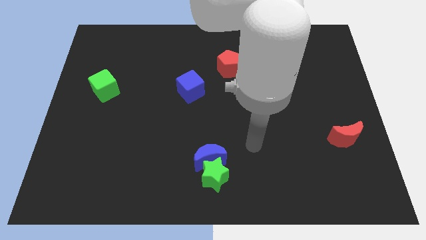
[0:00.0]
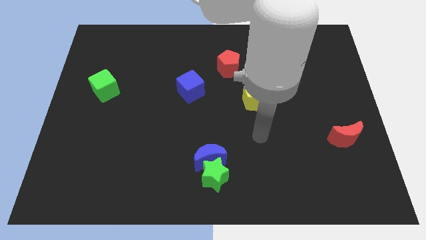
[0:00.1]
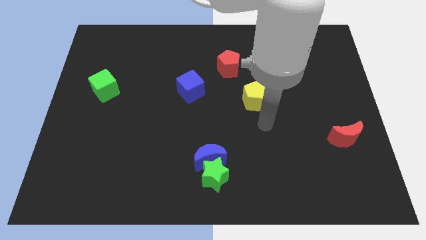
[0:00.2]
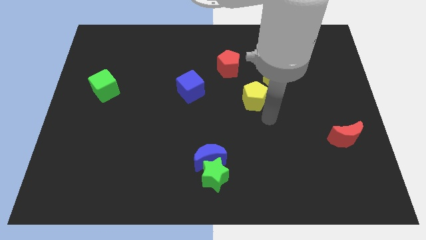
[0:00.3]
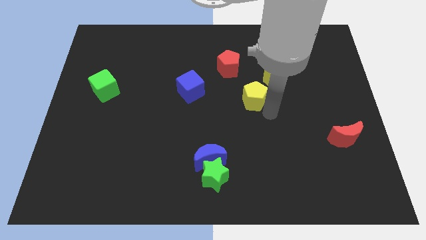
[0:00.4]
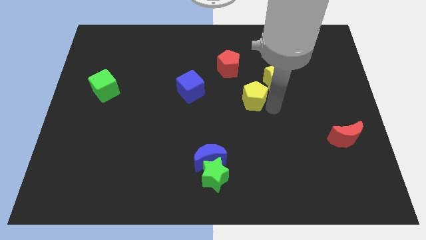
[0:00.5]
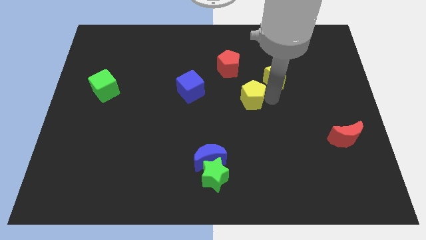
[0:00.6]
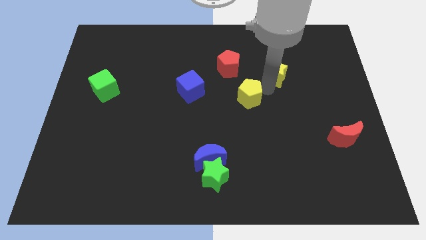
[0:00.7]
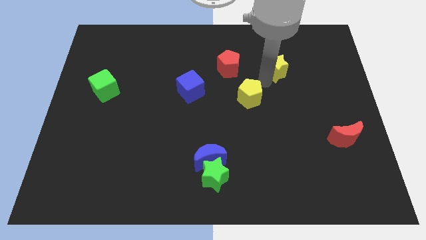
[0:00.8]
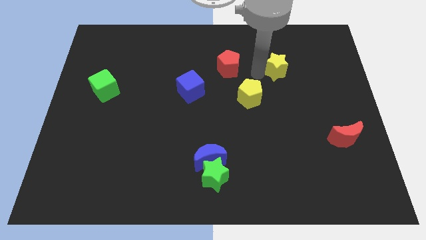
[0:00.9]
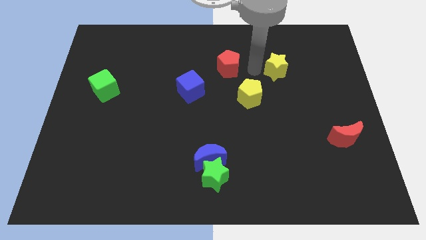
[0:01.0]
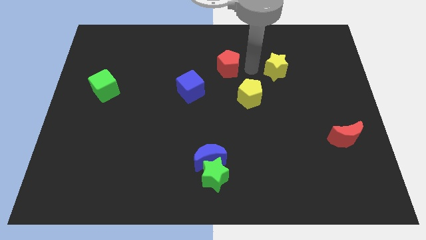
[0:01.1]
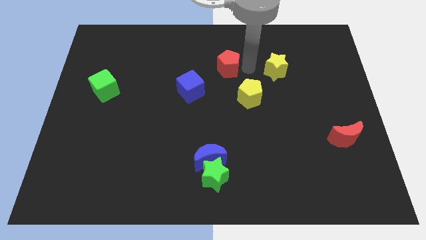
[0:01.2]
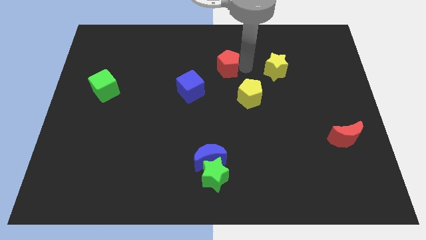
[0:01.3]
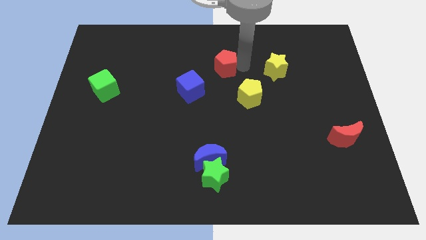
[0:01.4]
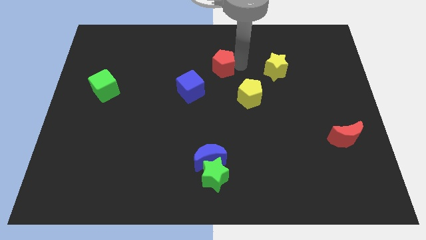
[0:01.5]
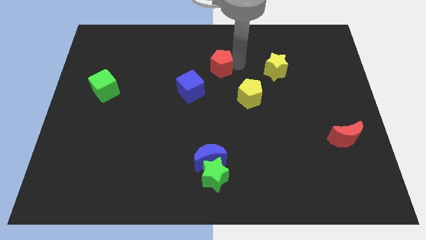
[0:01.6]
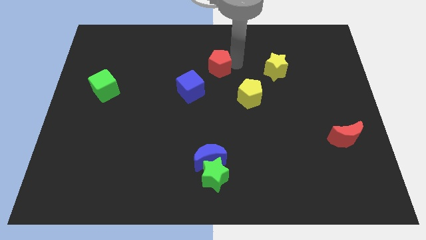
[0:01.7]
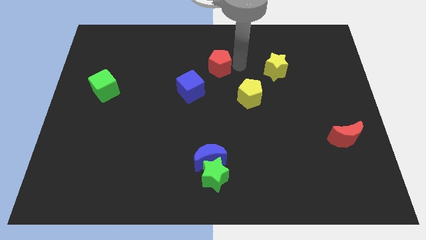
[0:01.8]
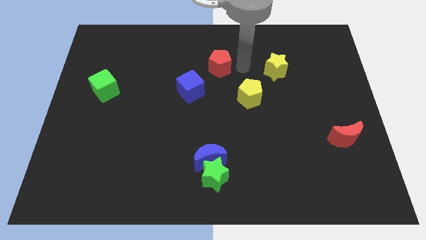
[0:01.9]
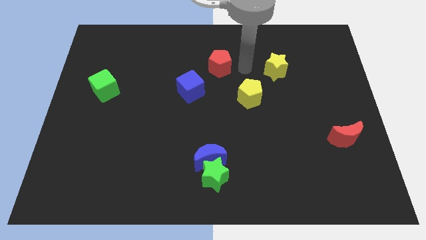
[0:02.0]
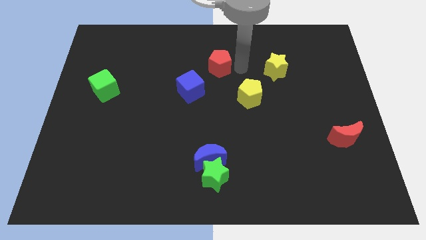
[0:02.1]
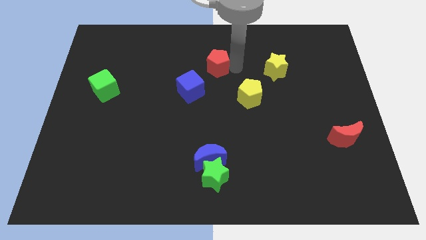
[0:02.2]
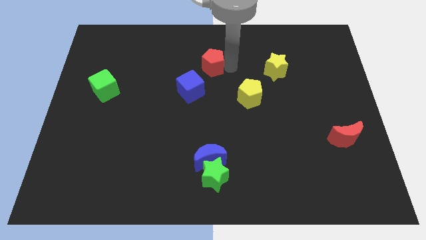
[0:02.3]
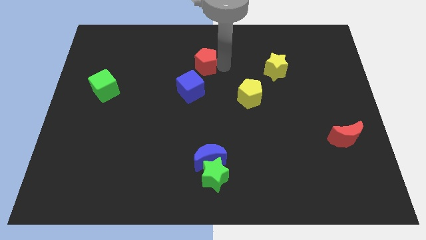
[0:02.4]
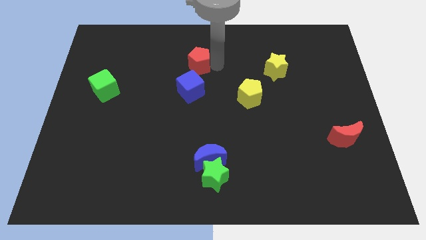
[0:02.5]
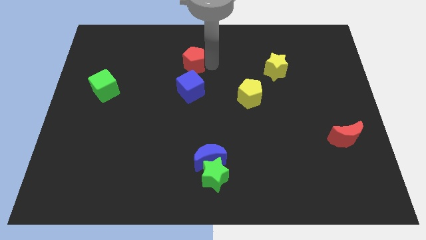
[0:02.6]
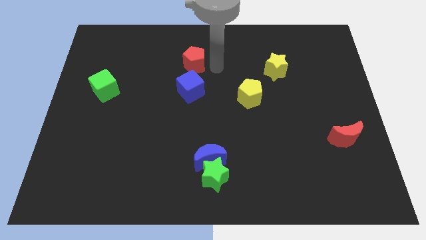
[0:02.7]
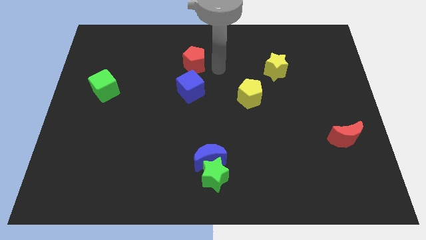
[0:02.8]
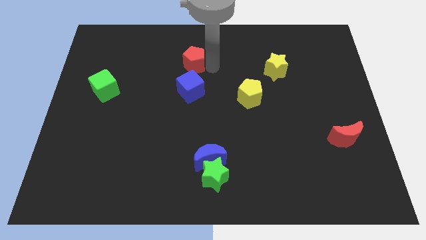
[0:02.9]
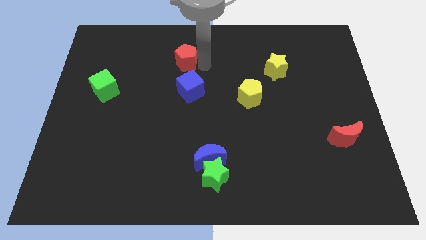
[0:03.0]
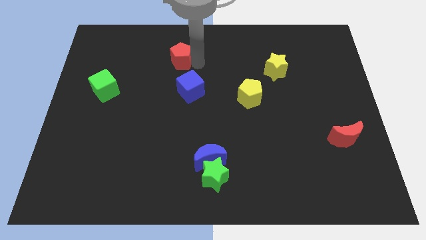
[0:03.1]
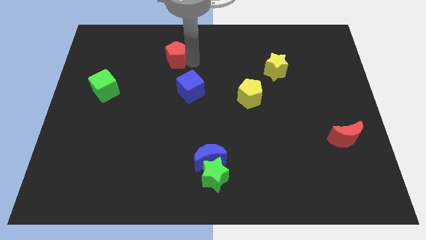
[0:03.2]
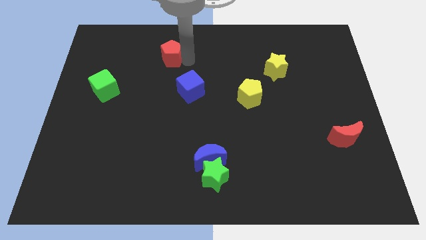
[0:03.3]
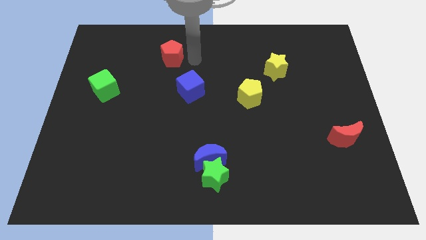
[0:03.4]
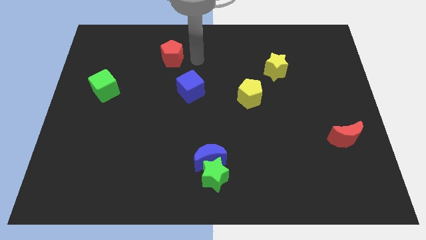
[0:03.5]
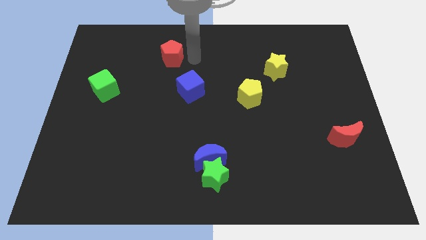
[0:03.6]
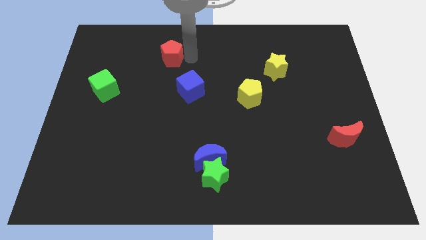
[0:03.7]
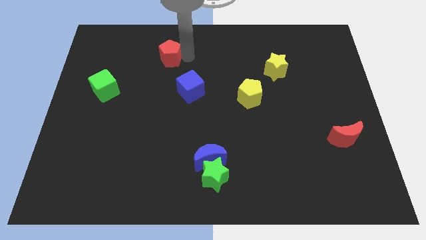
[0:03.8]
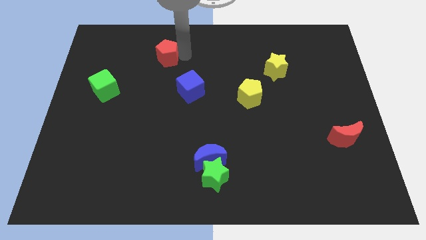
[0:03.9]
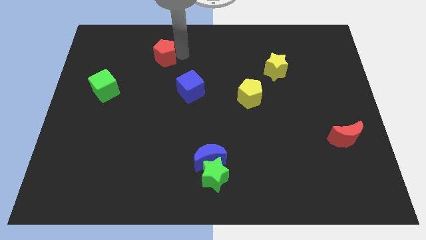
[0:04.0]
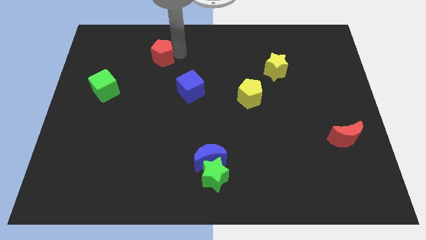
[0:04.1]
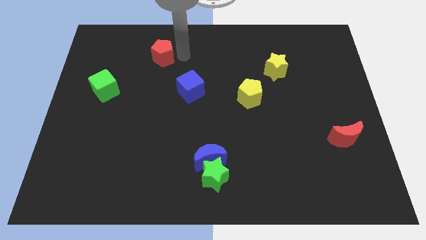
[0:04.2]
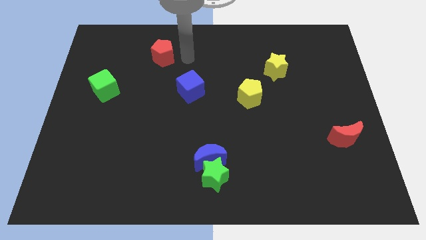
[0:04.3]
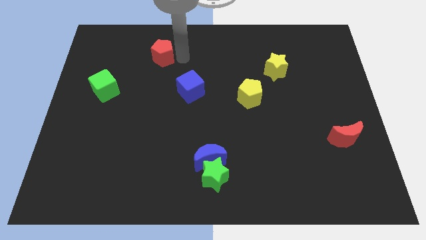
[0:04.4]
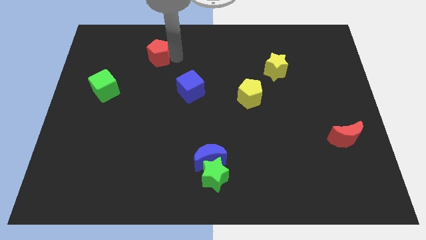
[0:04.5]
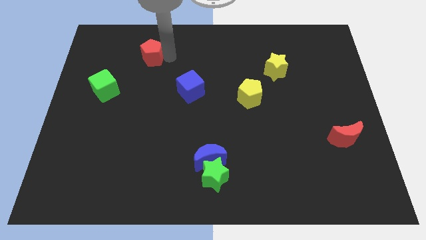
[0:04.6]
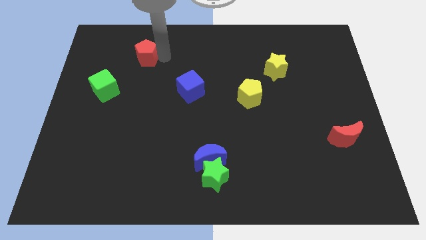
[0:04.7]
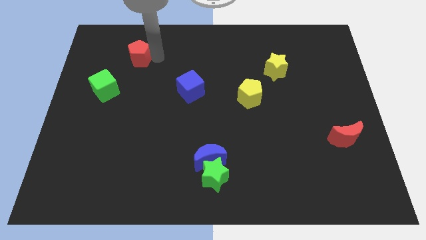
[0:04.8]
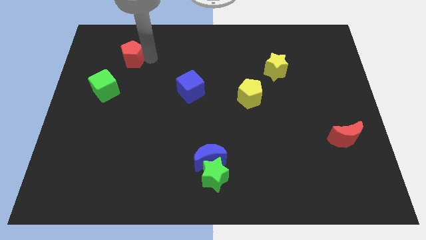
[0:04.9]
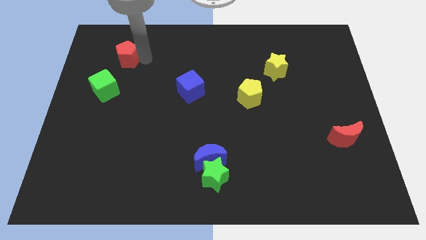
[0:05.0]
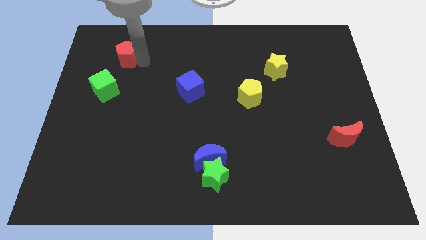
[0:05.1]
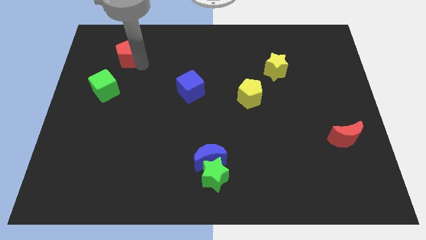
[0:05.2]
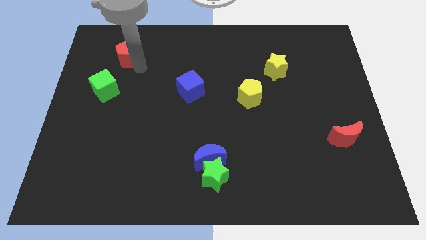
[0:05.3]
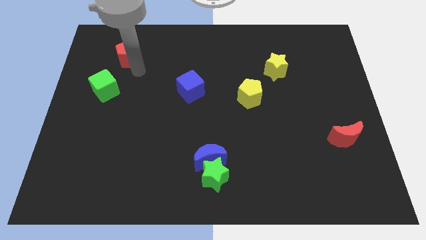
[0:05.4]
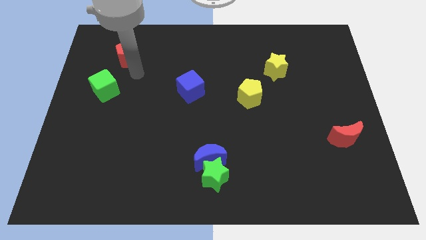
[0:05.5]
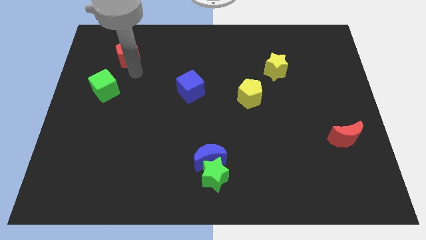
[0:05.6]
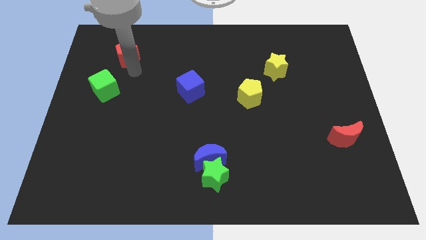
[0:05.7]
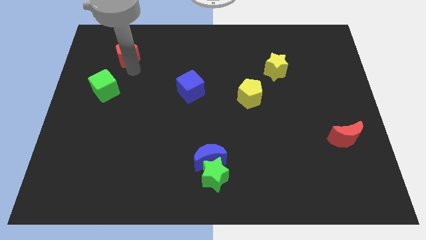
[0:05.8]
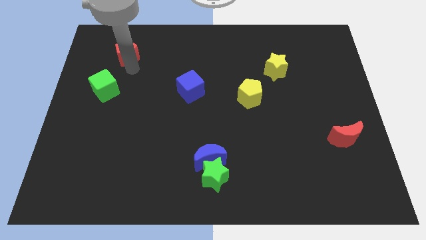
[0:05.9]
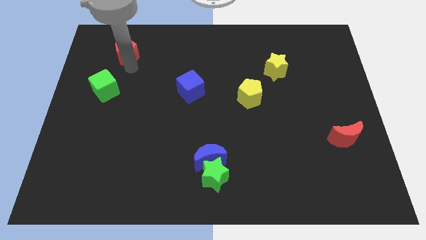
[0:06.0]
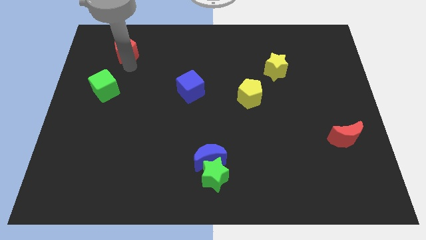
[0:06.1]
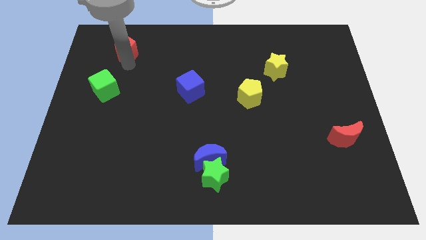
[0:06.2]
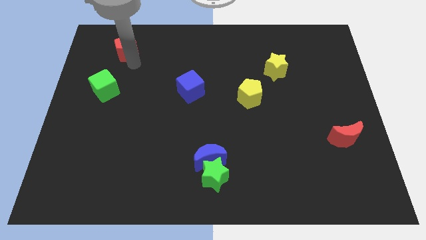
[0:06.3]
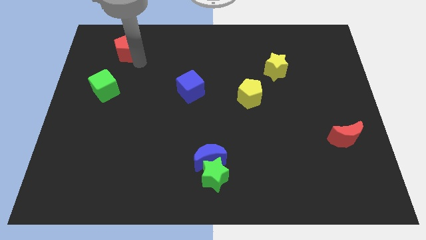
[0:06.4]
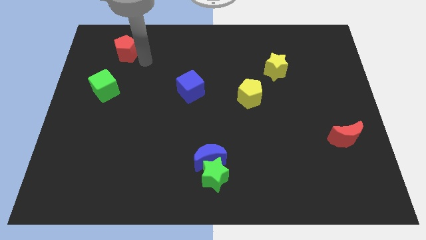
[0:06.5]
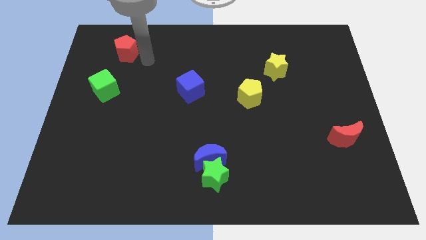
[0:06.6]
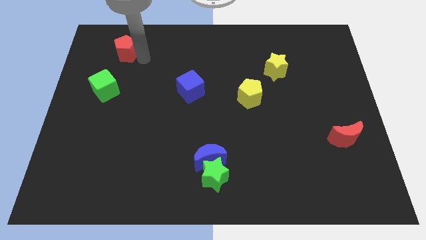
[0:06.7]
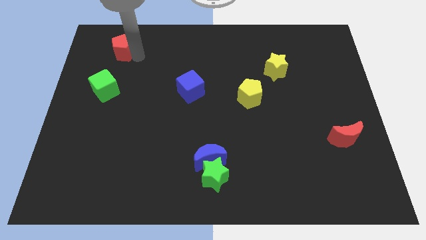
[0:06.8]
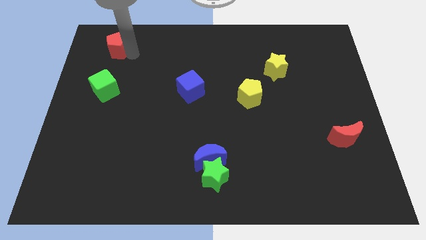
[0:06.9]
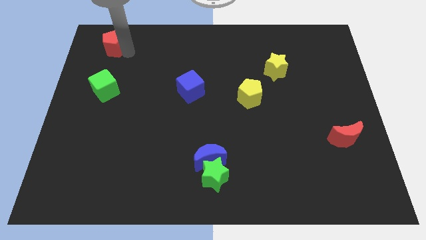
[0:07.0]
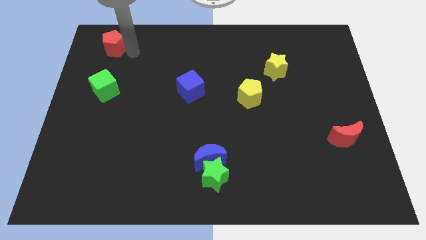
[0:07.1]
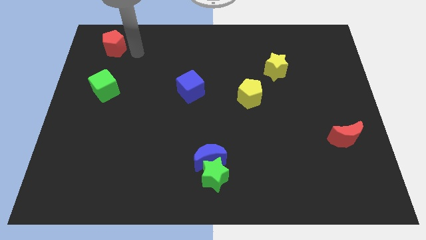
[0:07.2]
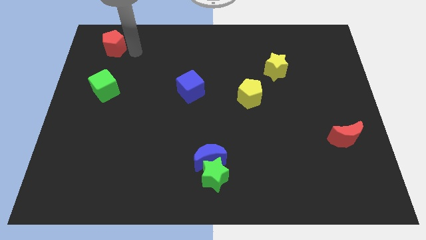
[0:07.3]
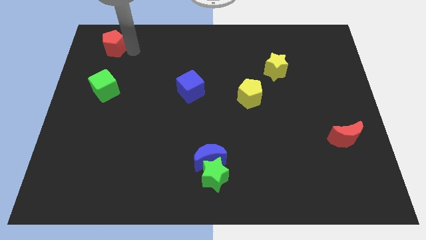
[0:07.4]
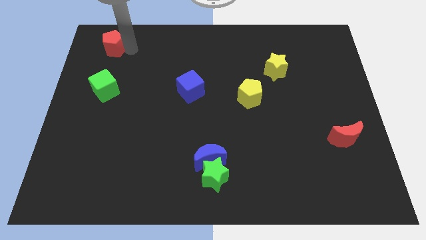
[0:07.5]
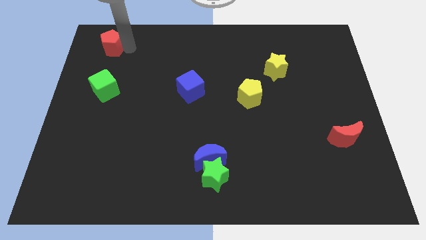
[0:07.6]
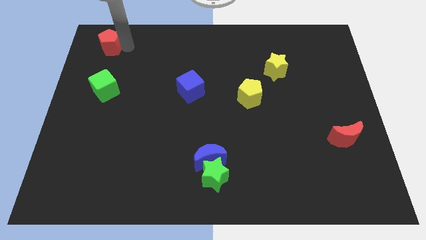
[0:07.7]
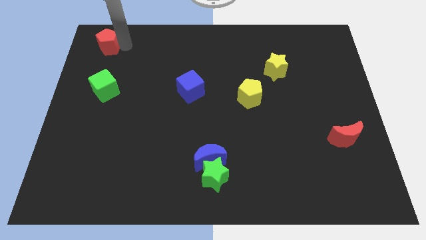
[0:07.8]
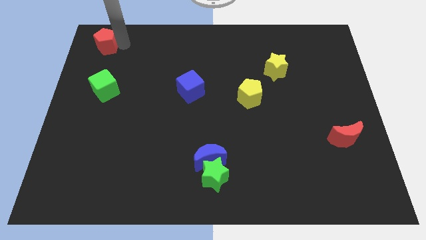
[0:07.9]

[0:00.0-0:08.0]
push the red pentagon to the upper left corner
